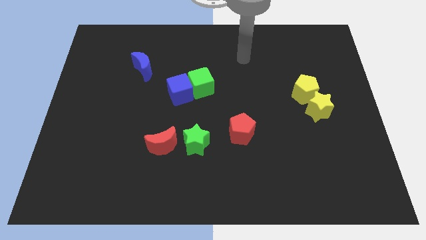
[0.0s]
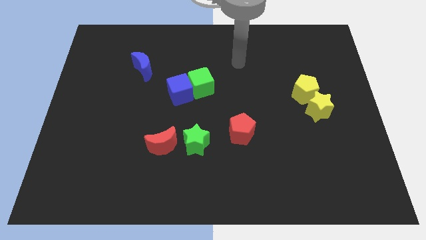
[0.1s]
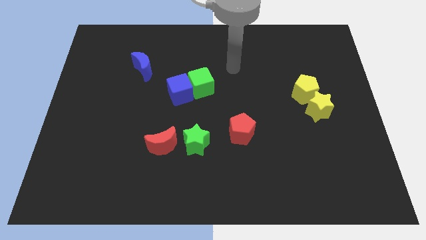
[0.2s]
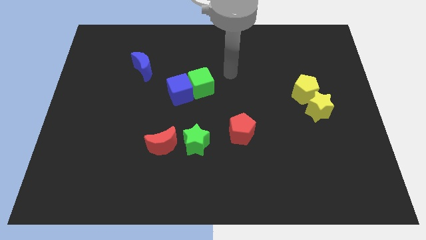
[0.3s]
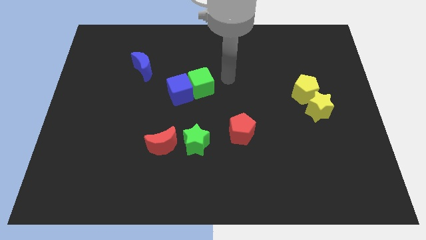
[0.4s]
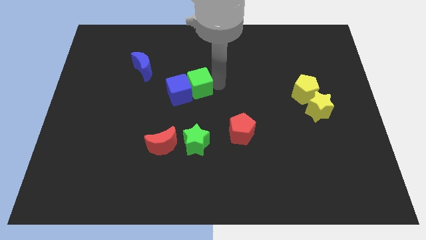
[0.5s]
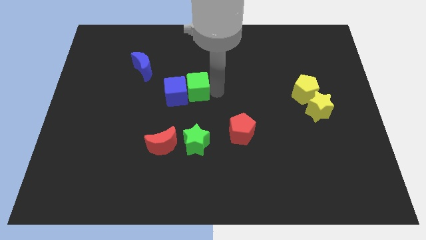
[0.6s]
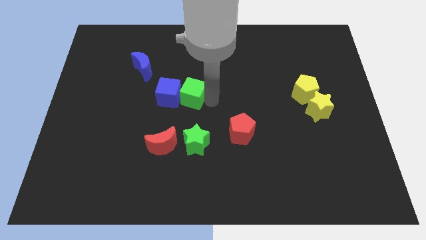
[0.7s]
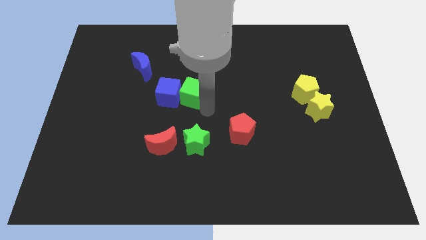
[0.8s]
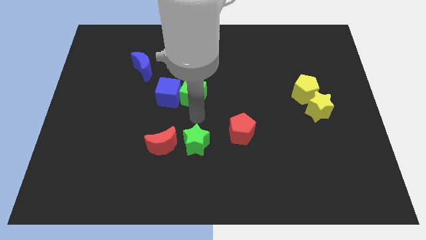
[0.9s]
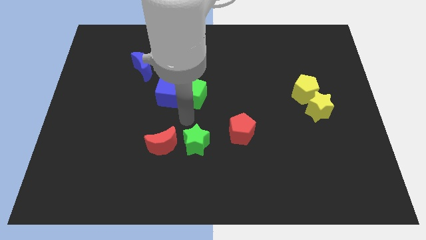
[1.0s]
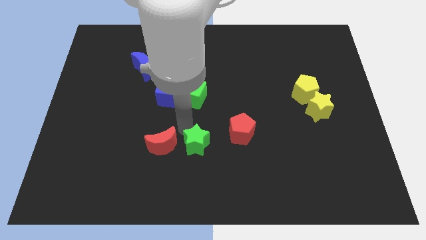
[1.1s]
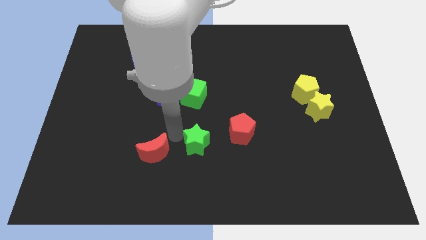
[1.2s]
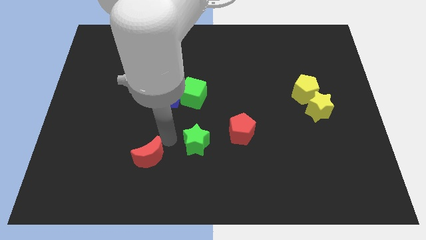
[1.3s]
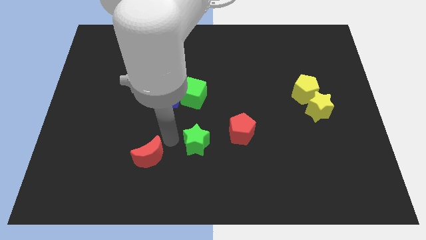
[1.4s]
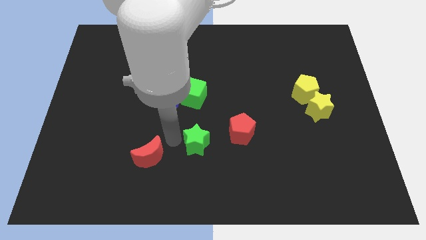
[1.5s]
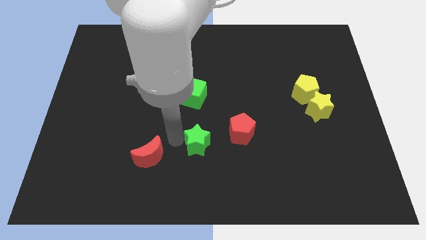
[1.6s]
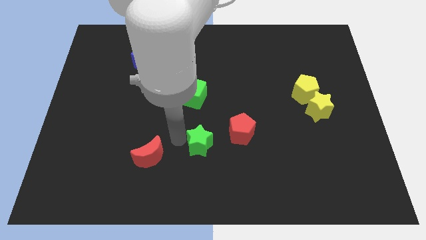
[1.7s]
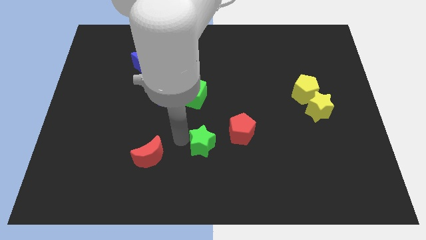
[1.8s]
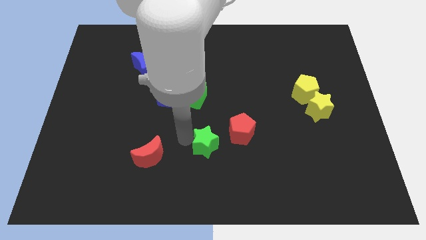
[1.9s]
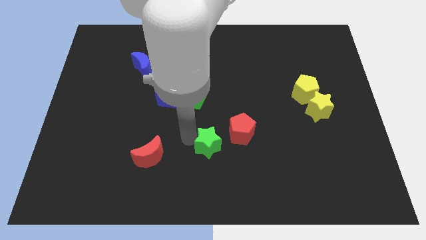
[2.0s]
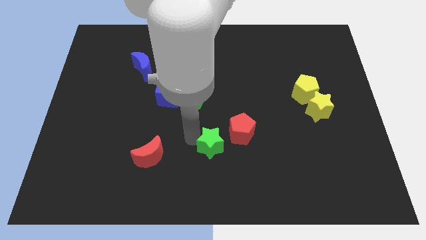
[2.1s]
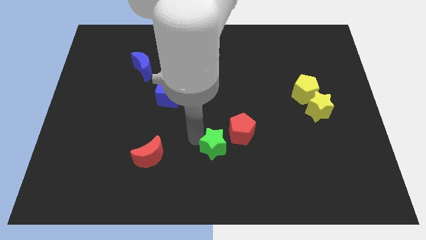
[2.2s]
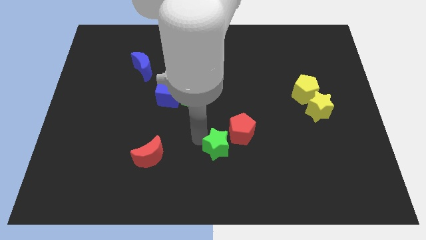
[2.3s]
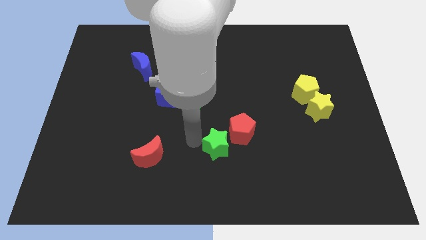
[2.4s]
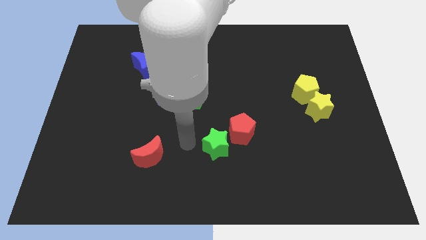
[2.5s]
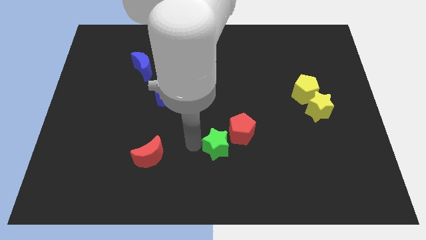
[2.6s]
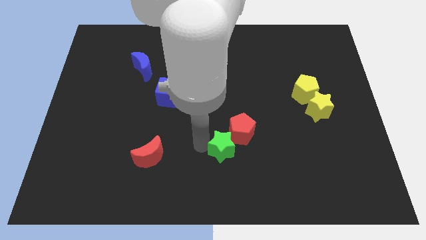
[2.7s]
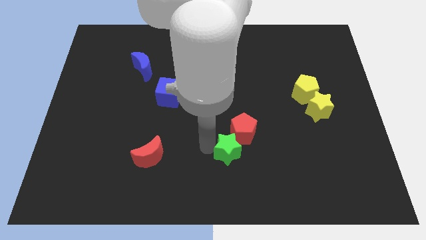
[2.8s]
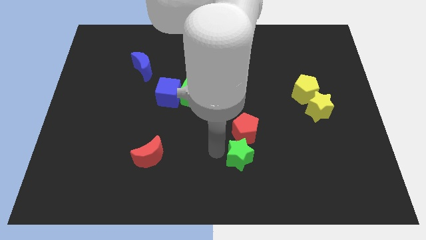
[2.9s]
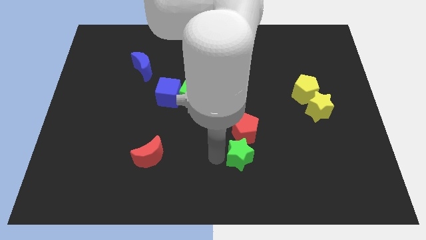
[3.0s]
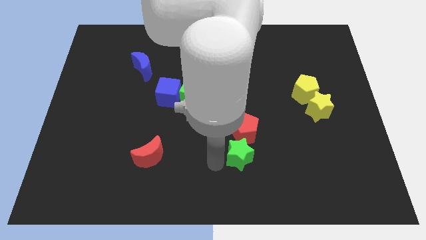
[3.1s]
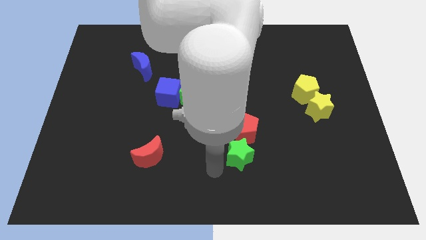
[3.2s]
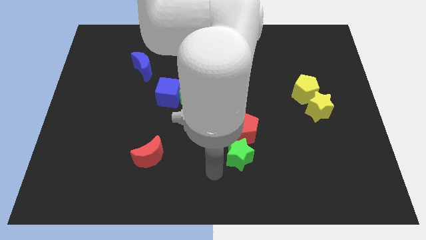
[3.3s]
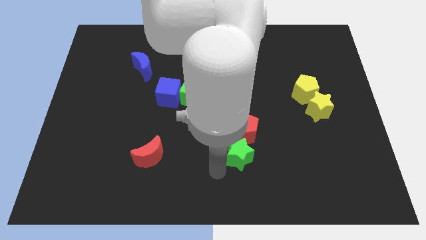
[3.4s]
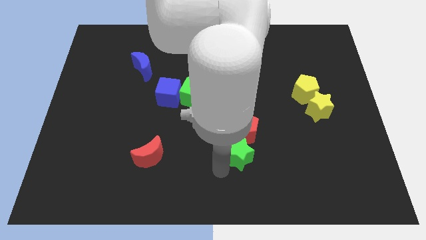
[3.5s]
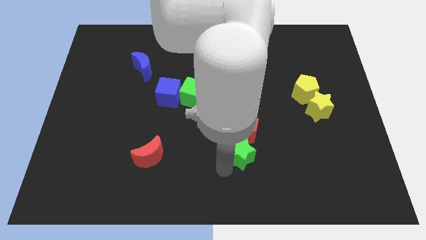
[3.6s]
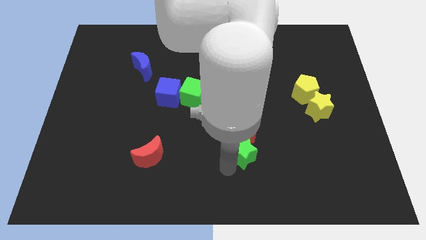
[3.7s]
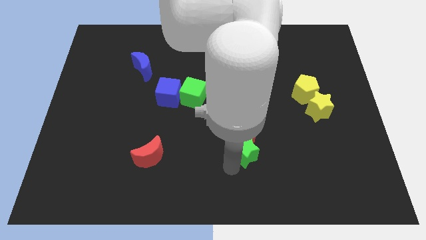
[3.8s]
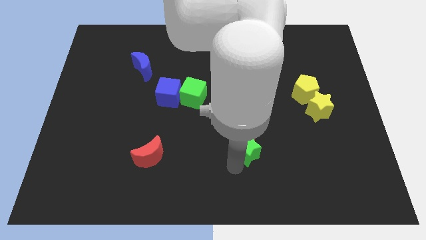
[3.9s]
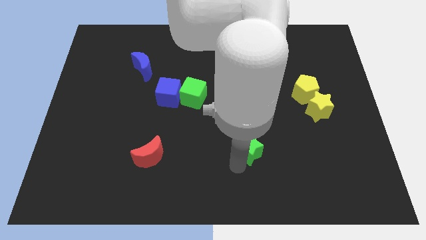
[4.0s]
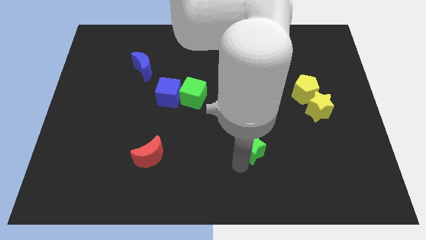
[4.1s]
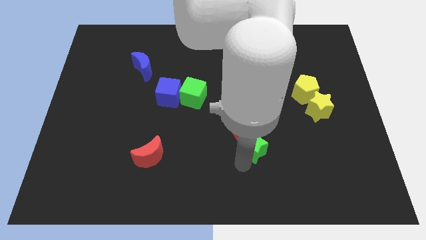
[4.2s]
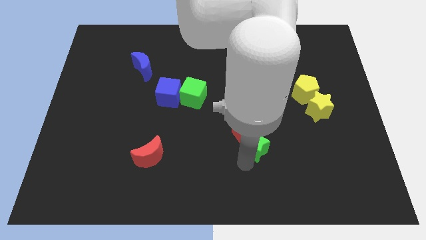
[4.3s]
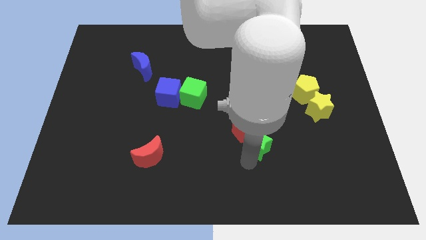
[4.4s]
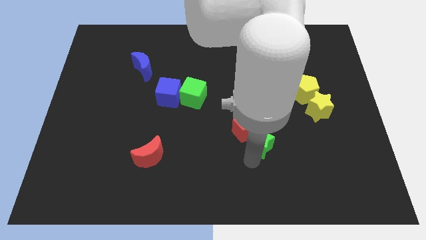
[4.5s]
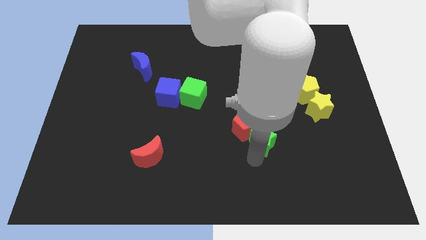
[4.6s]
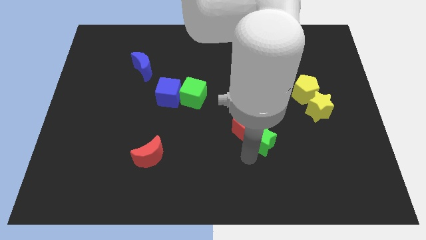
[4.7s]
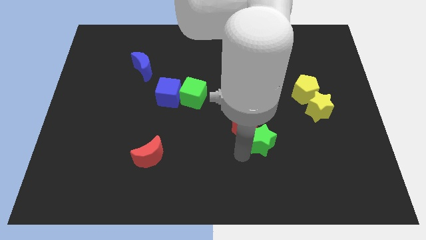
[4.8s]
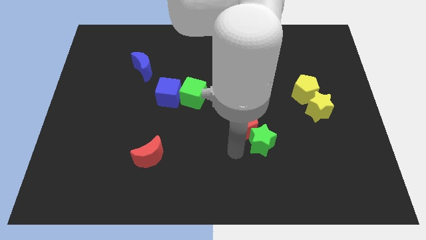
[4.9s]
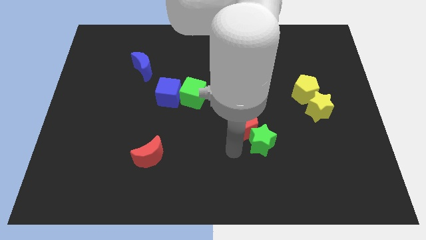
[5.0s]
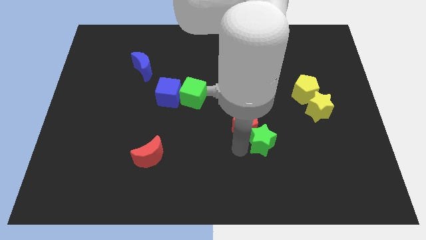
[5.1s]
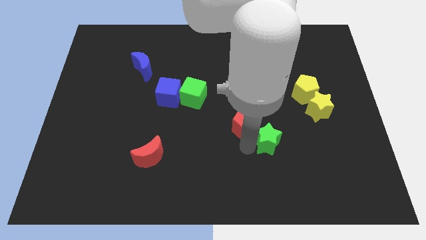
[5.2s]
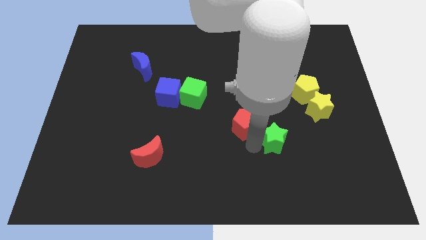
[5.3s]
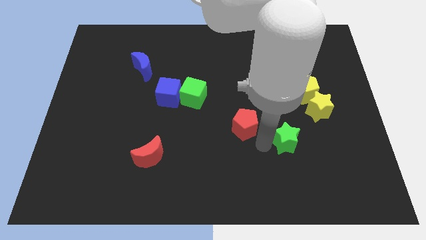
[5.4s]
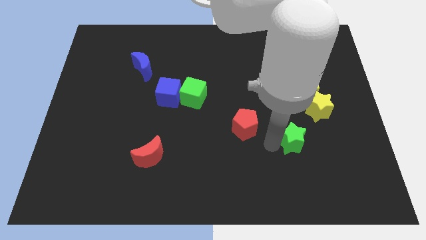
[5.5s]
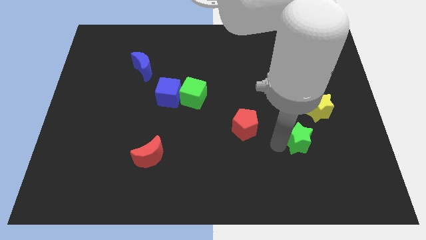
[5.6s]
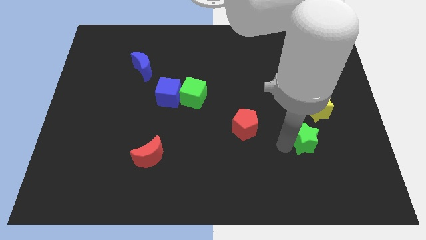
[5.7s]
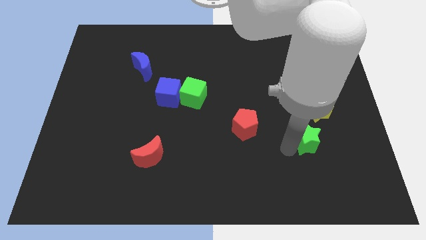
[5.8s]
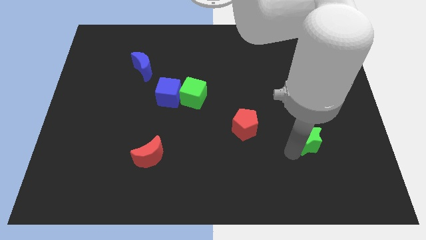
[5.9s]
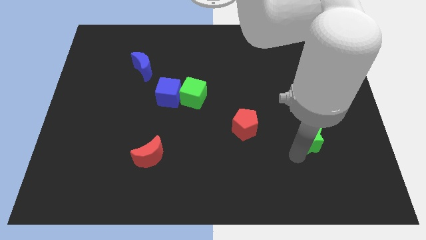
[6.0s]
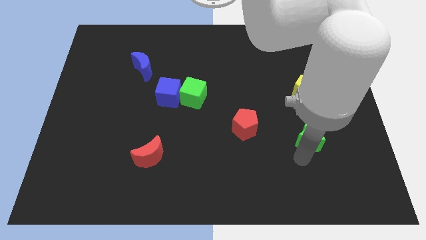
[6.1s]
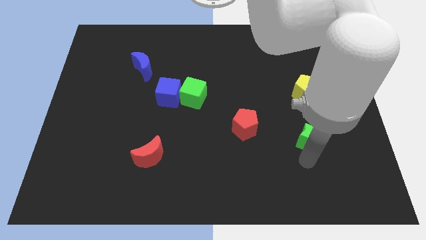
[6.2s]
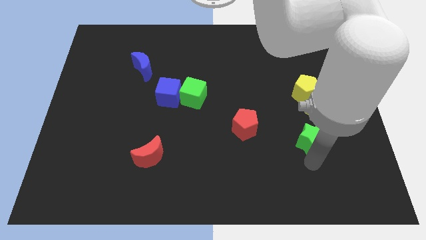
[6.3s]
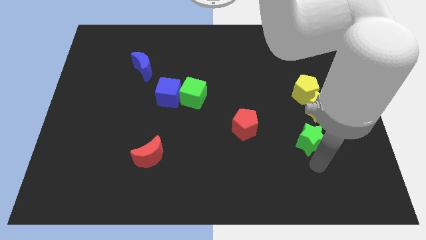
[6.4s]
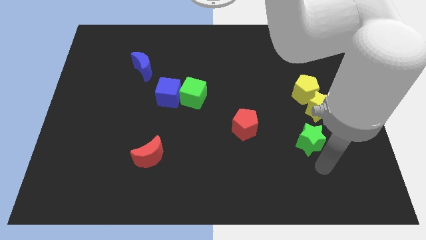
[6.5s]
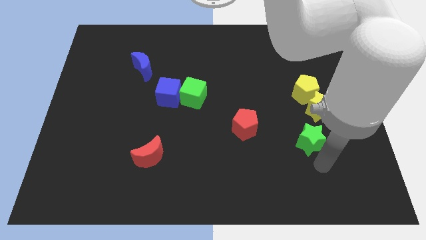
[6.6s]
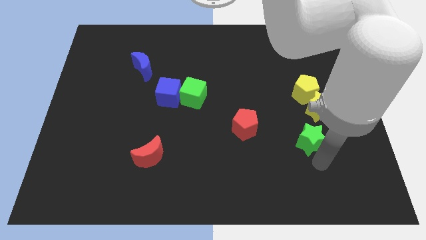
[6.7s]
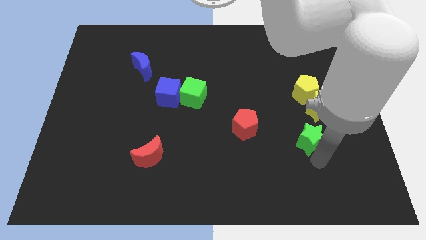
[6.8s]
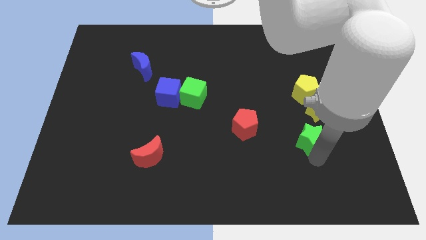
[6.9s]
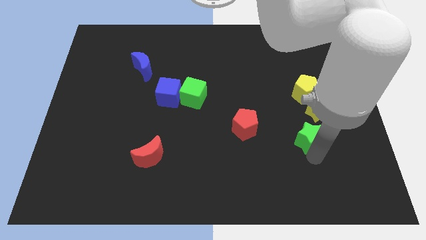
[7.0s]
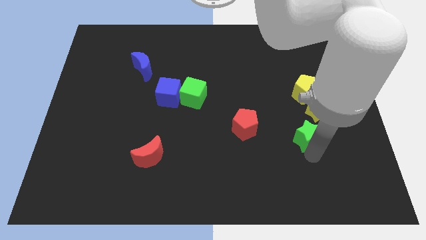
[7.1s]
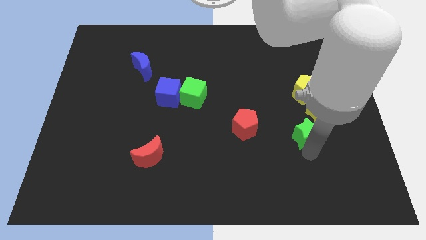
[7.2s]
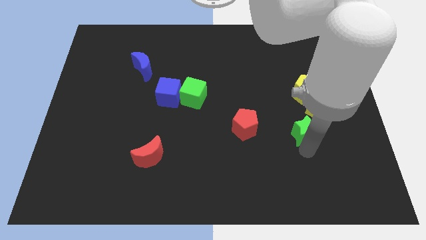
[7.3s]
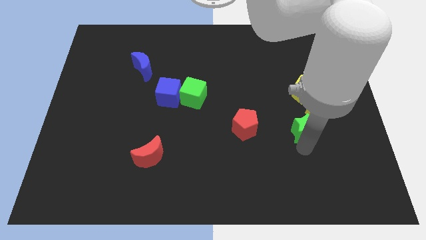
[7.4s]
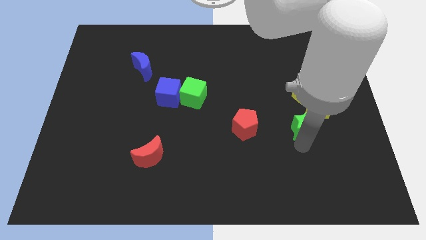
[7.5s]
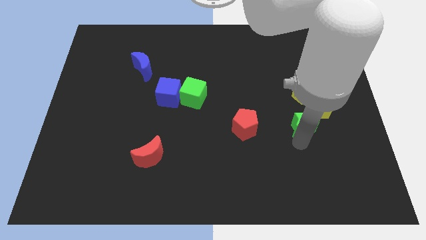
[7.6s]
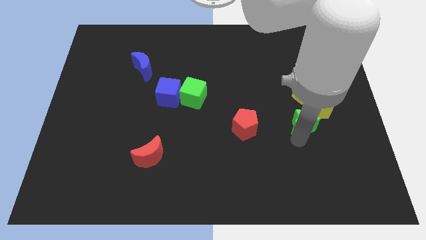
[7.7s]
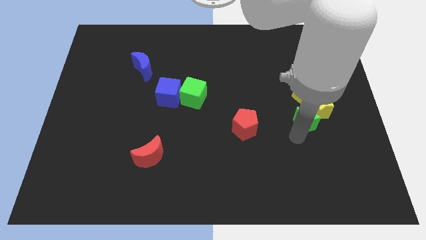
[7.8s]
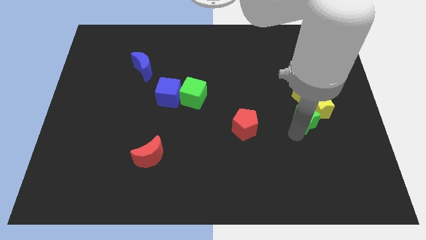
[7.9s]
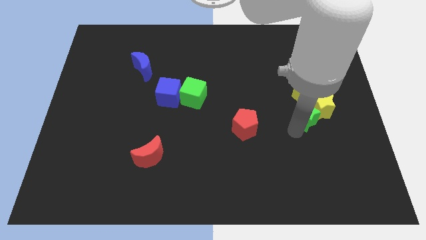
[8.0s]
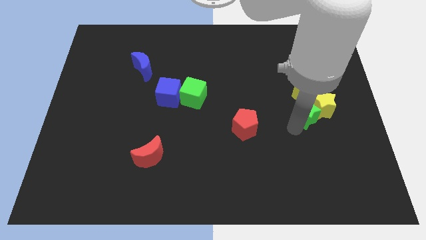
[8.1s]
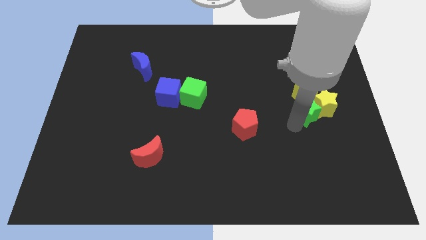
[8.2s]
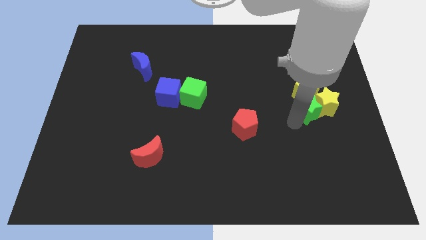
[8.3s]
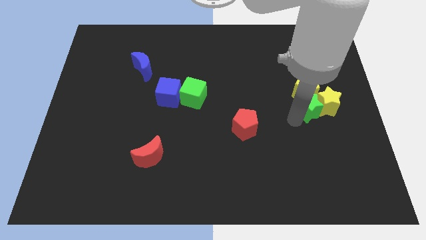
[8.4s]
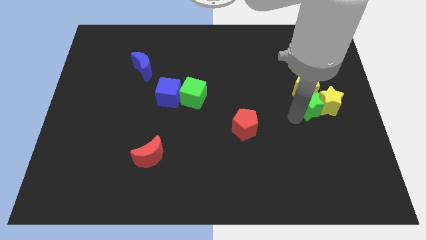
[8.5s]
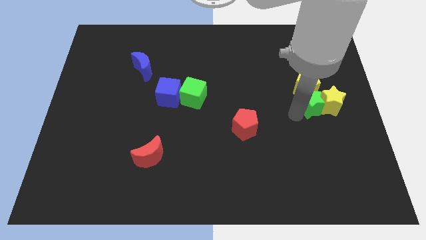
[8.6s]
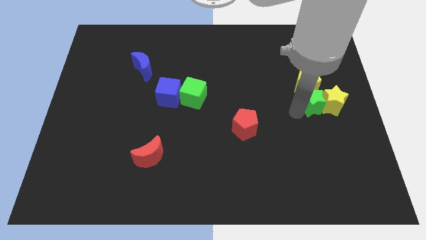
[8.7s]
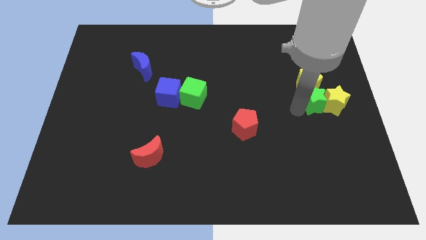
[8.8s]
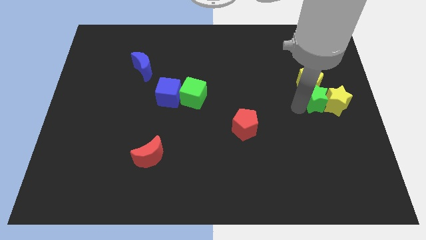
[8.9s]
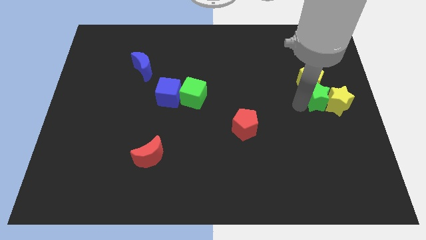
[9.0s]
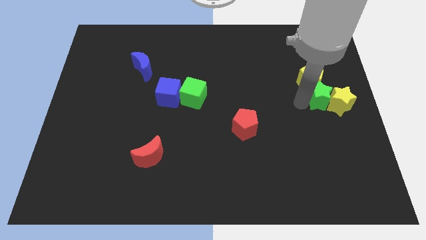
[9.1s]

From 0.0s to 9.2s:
move the green star to the right side of the board
